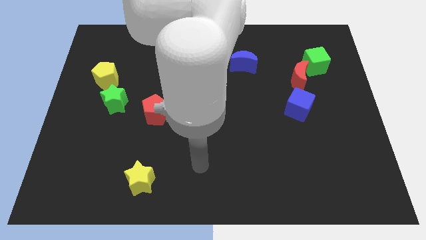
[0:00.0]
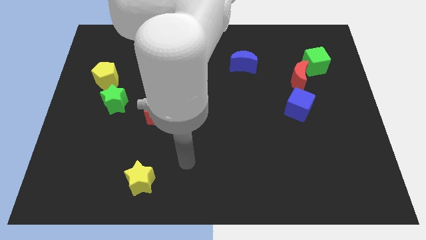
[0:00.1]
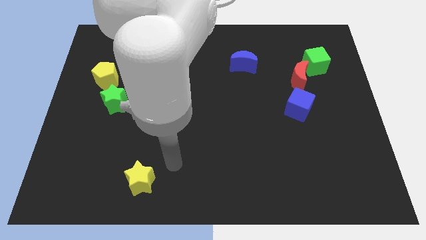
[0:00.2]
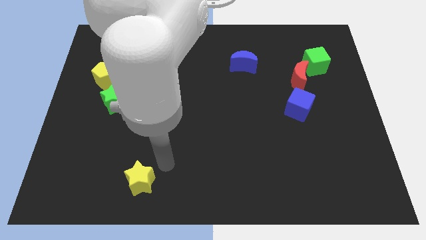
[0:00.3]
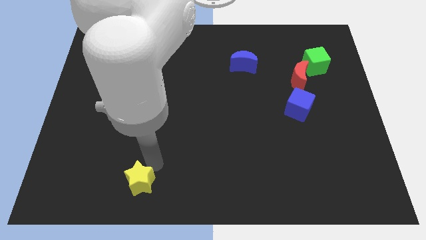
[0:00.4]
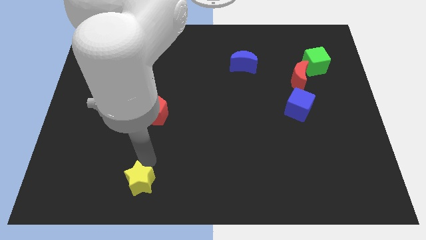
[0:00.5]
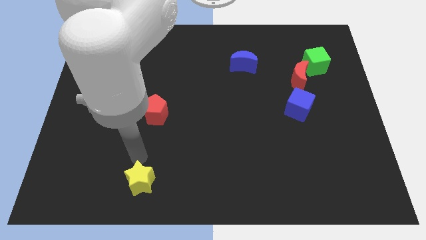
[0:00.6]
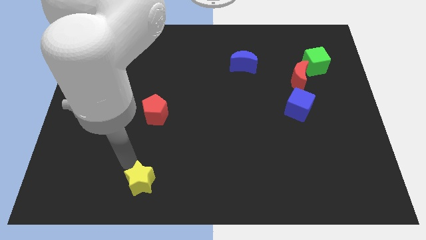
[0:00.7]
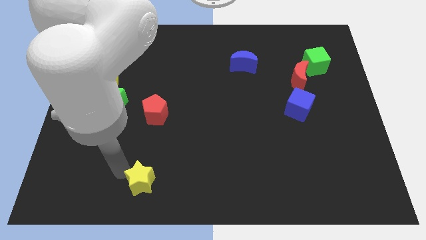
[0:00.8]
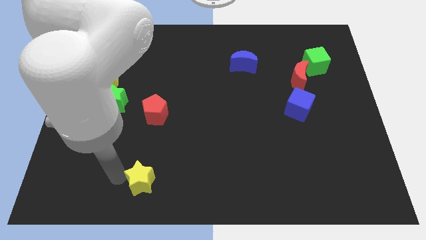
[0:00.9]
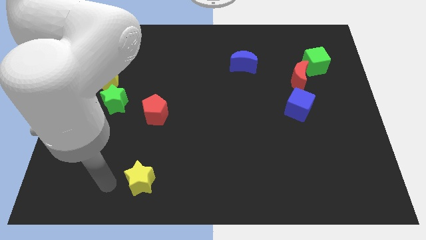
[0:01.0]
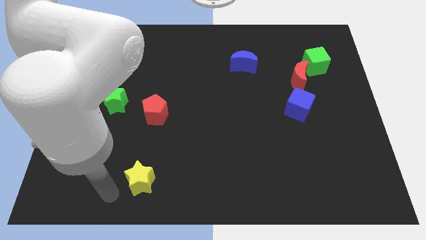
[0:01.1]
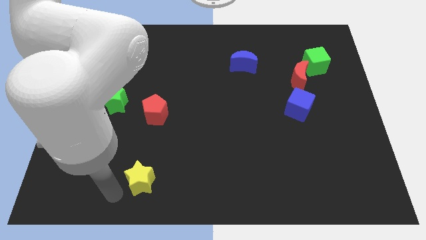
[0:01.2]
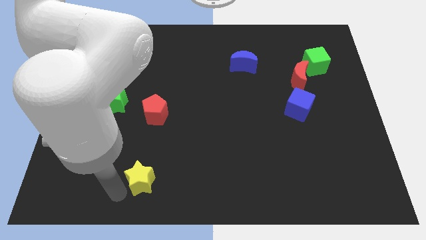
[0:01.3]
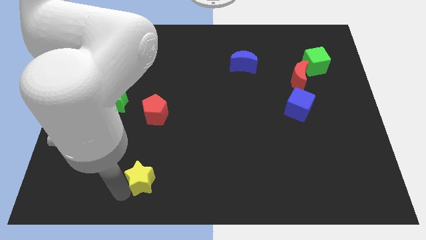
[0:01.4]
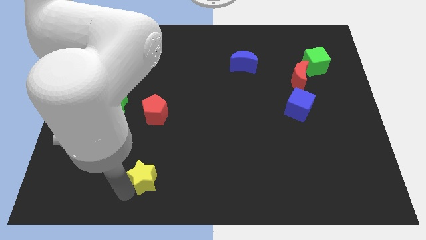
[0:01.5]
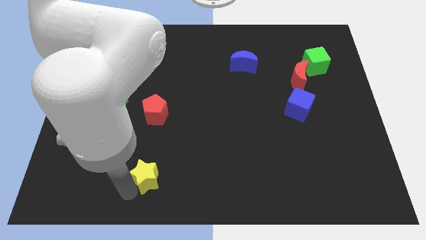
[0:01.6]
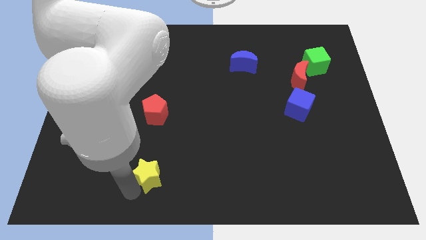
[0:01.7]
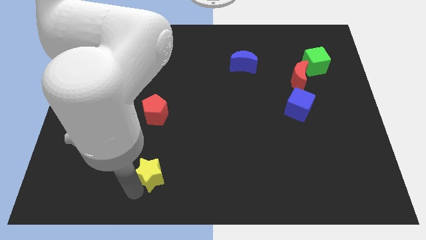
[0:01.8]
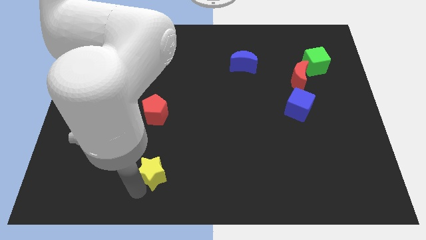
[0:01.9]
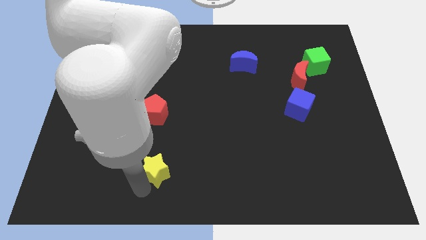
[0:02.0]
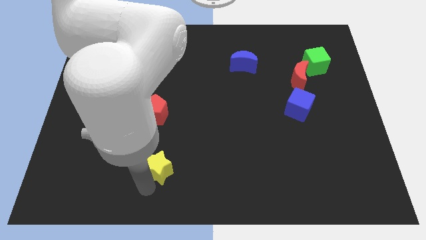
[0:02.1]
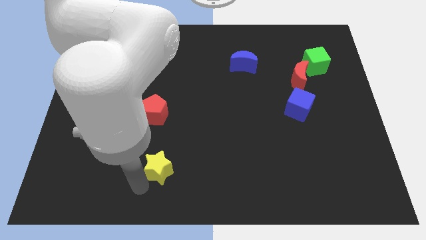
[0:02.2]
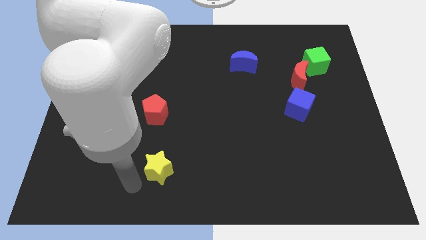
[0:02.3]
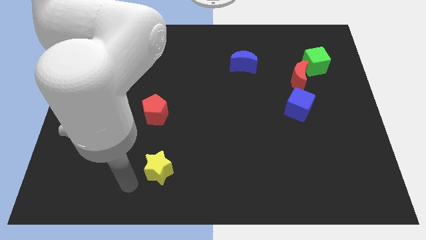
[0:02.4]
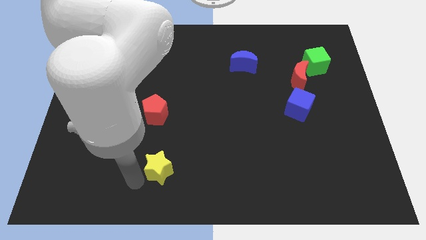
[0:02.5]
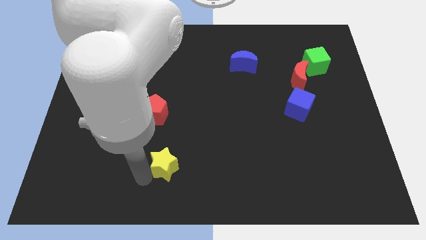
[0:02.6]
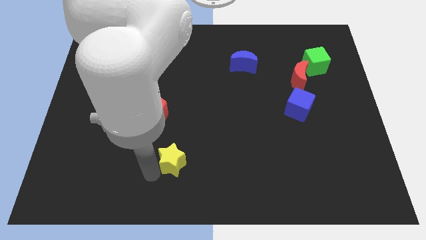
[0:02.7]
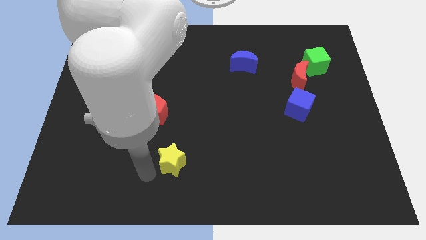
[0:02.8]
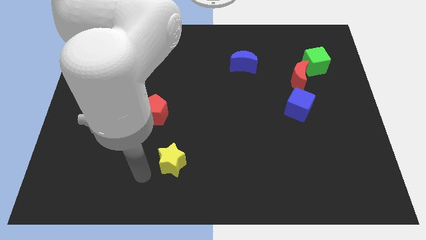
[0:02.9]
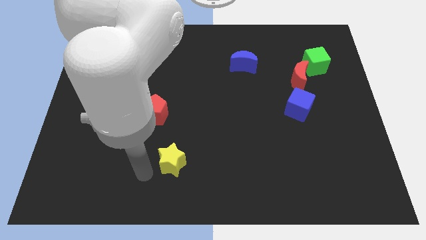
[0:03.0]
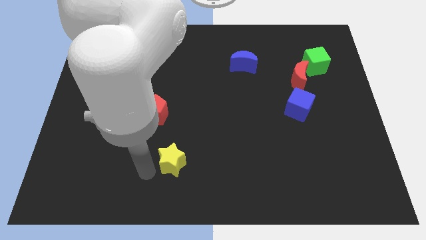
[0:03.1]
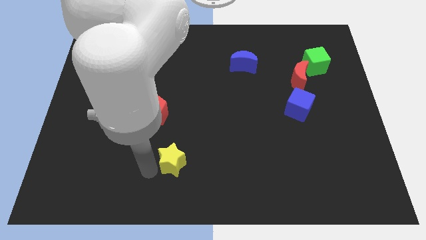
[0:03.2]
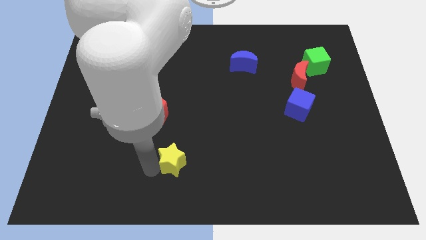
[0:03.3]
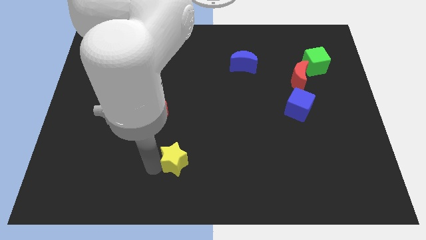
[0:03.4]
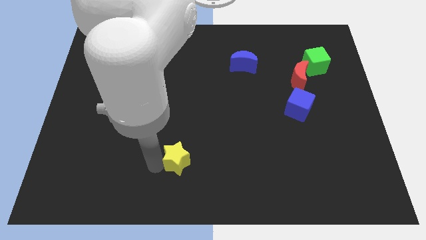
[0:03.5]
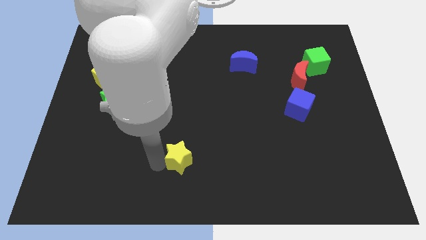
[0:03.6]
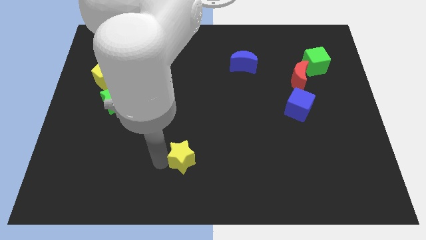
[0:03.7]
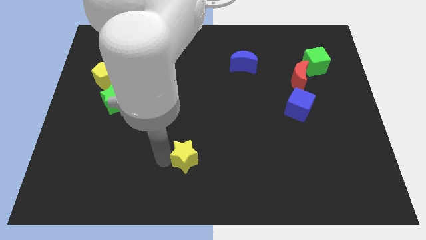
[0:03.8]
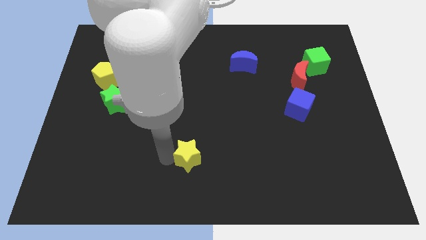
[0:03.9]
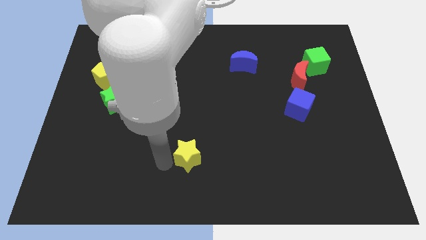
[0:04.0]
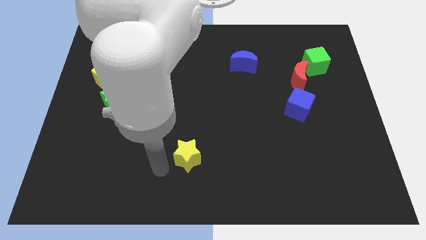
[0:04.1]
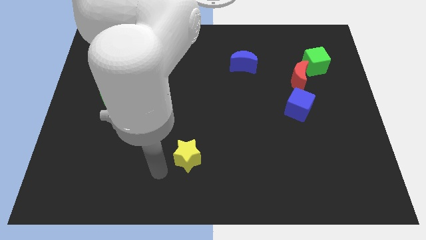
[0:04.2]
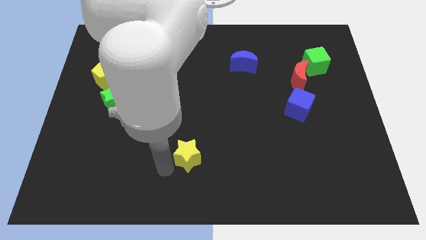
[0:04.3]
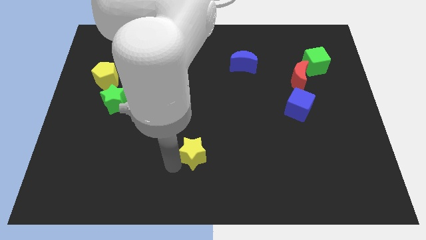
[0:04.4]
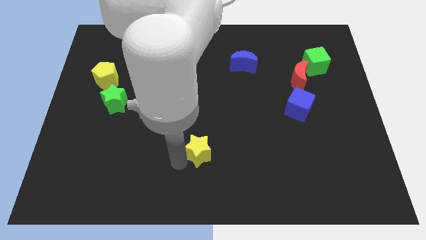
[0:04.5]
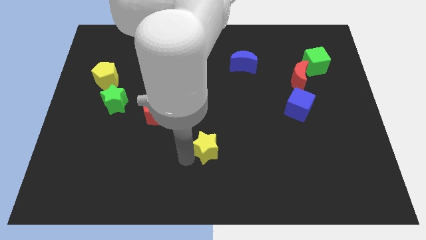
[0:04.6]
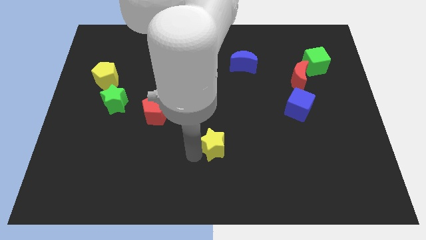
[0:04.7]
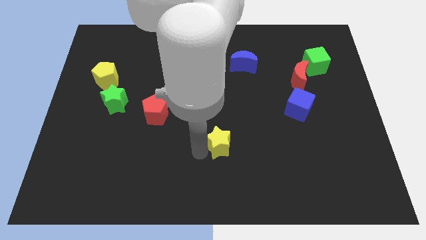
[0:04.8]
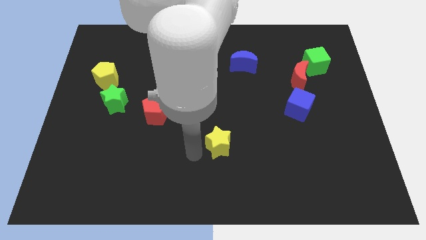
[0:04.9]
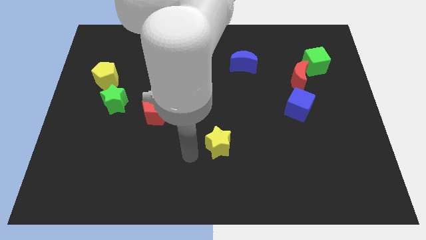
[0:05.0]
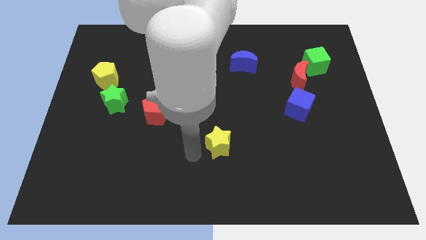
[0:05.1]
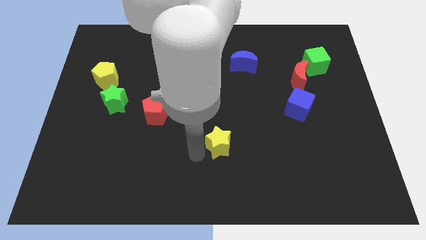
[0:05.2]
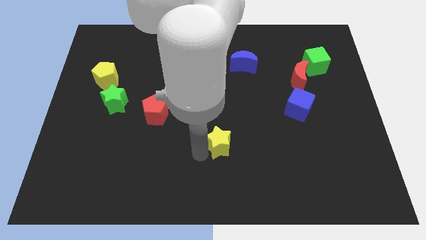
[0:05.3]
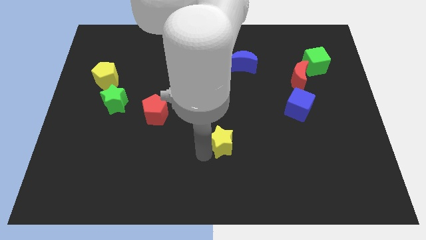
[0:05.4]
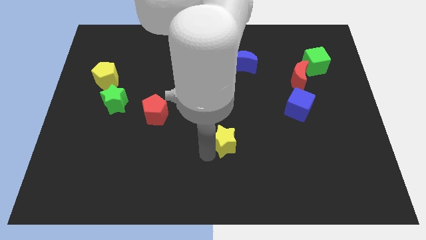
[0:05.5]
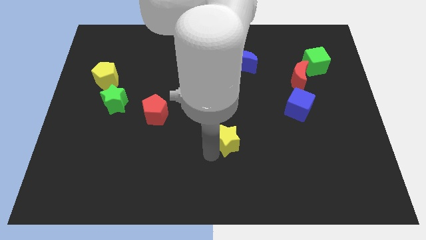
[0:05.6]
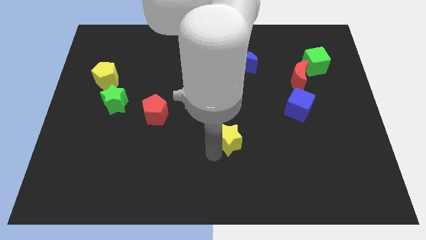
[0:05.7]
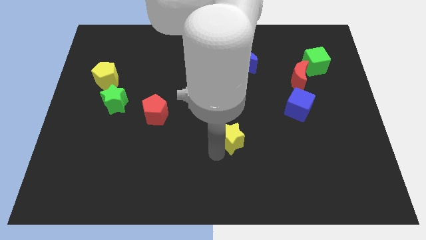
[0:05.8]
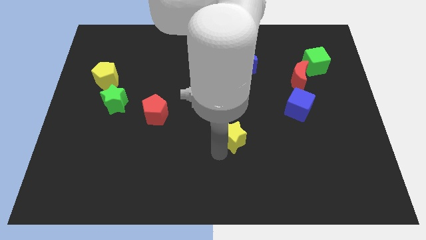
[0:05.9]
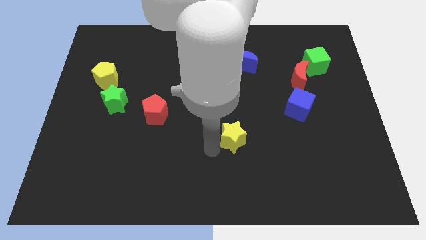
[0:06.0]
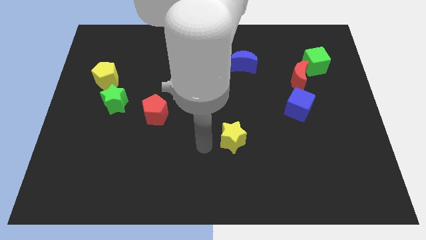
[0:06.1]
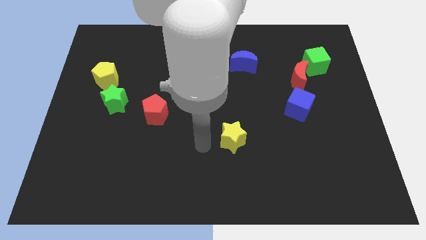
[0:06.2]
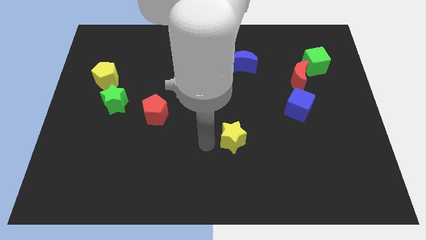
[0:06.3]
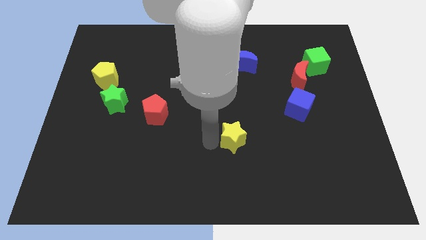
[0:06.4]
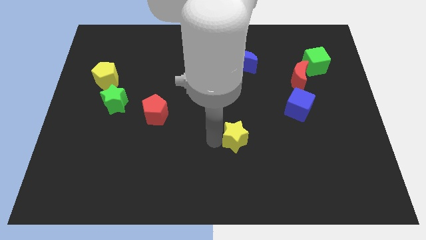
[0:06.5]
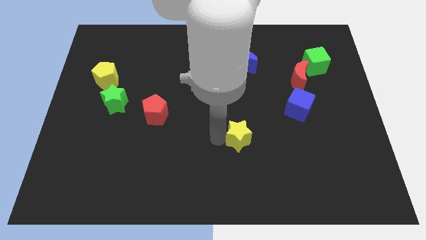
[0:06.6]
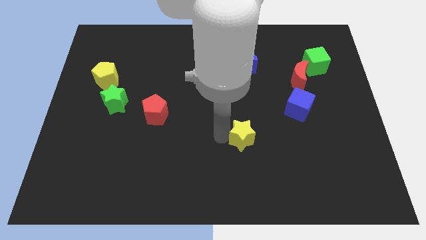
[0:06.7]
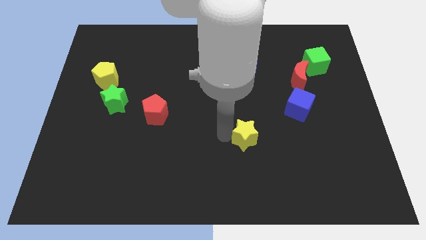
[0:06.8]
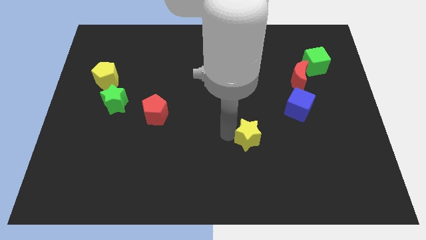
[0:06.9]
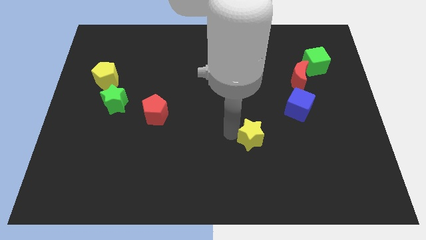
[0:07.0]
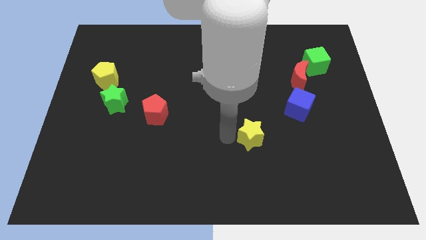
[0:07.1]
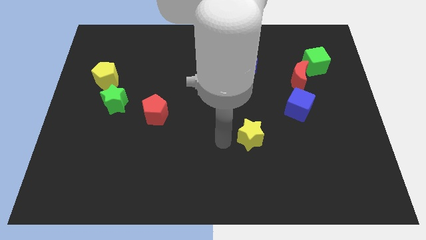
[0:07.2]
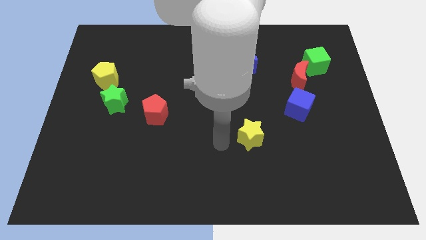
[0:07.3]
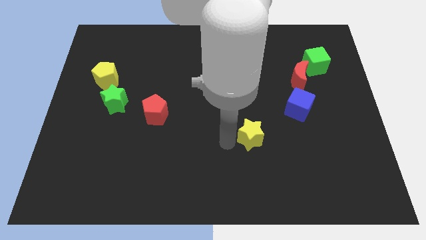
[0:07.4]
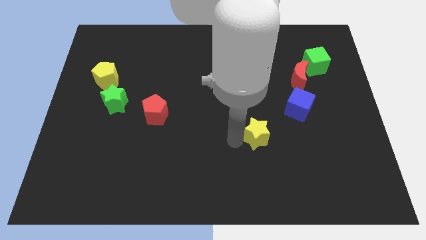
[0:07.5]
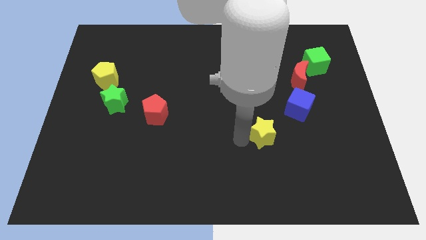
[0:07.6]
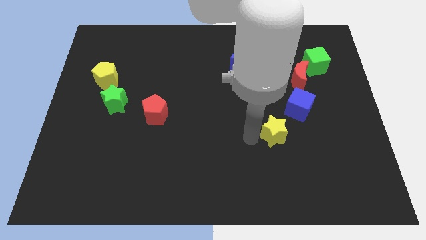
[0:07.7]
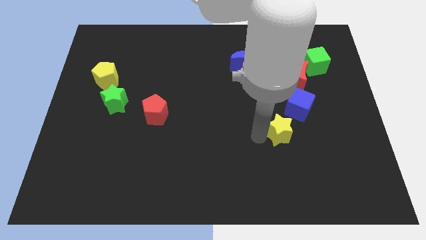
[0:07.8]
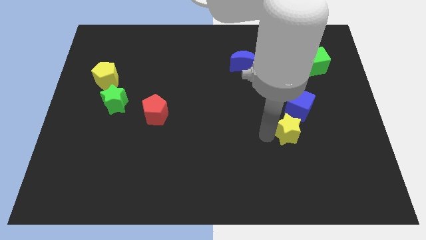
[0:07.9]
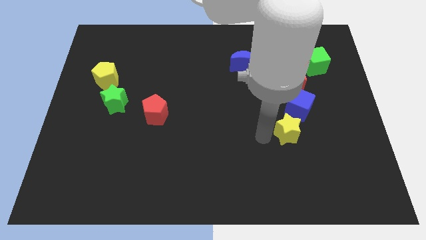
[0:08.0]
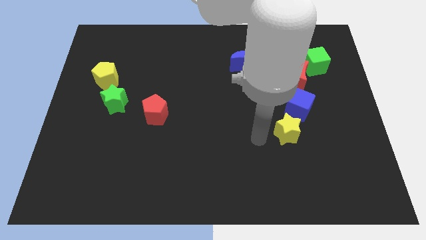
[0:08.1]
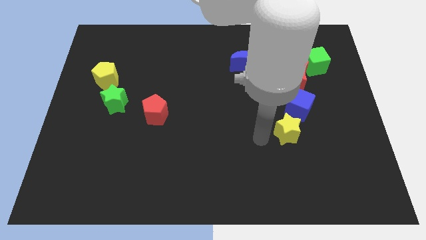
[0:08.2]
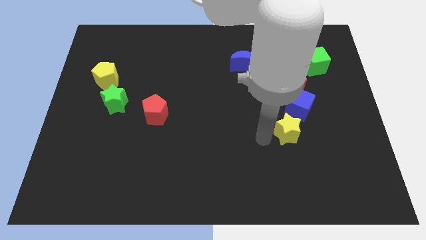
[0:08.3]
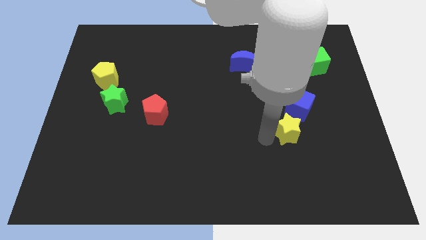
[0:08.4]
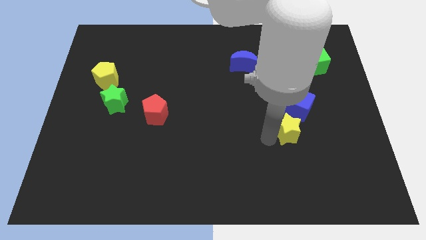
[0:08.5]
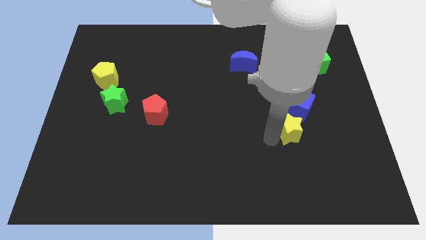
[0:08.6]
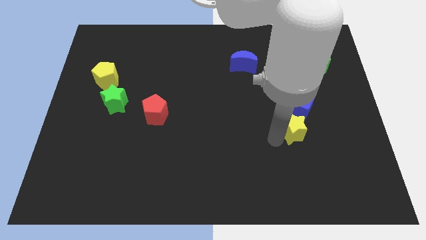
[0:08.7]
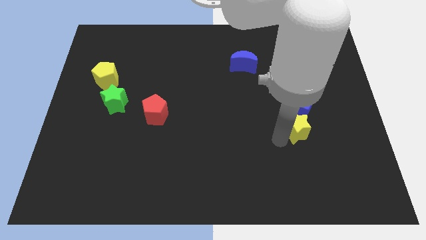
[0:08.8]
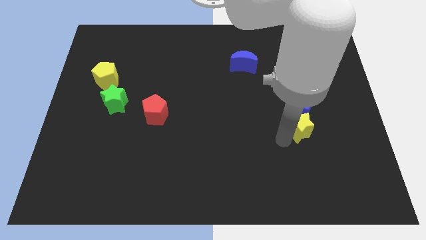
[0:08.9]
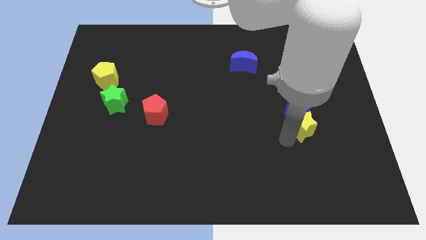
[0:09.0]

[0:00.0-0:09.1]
move the yellow star to the bottom right side of the blue cube
